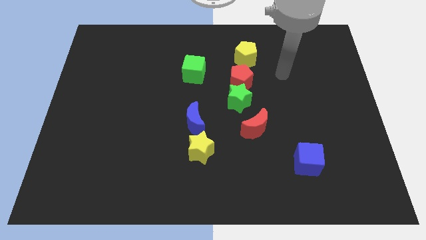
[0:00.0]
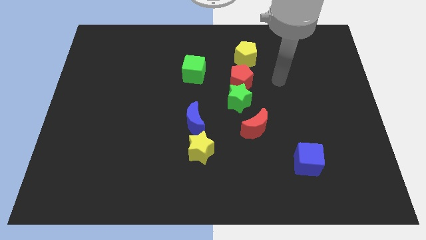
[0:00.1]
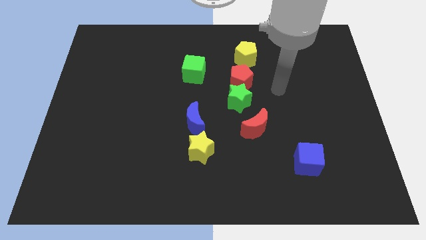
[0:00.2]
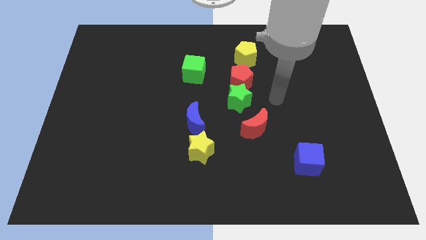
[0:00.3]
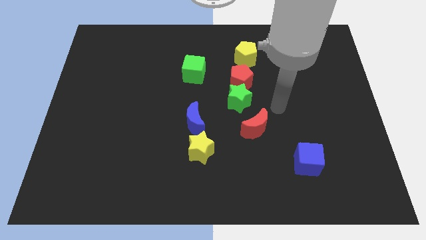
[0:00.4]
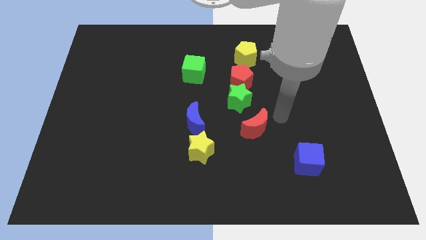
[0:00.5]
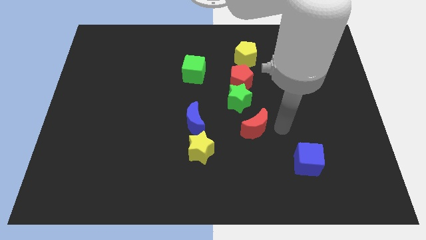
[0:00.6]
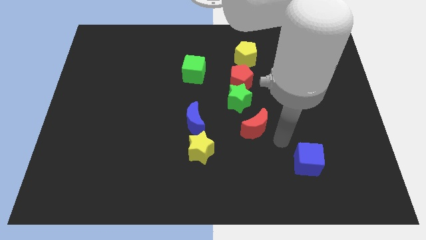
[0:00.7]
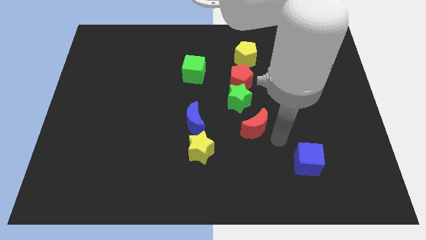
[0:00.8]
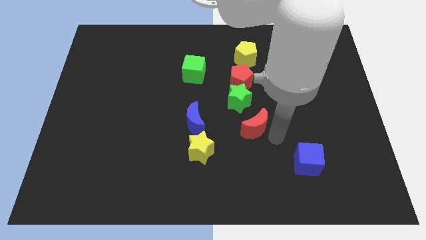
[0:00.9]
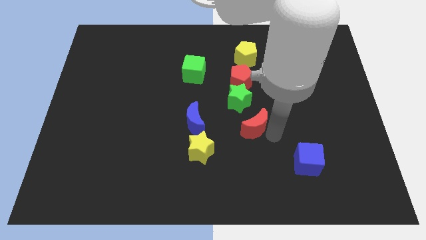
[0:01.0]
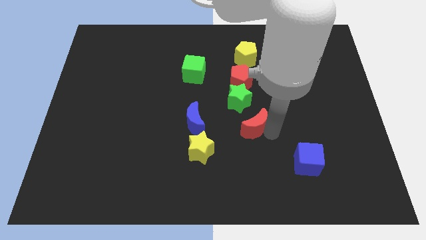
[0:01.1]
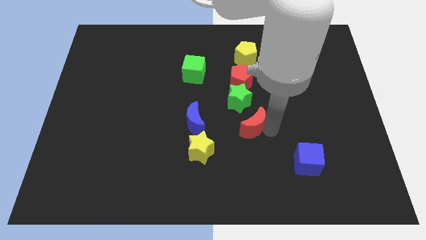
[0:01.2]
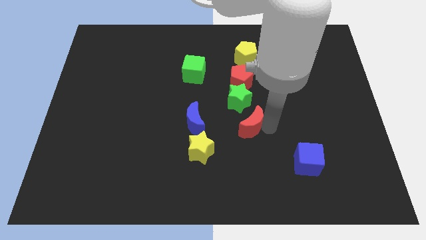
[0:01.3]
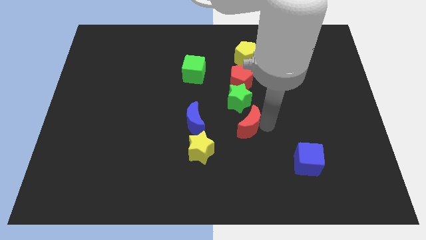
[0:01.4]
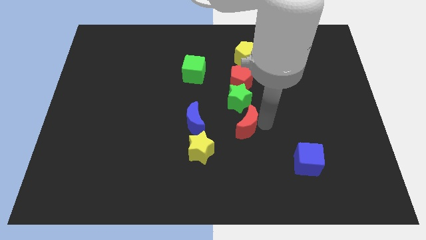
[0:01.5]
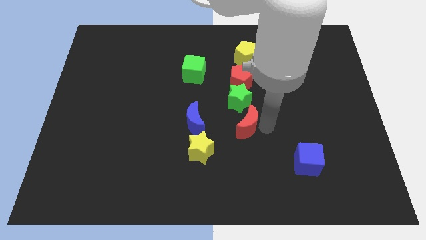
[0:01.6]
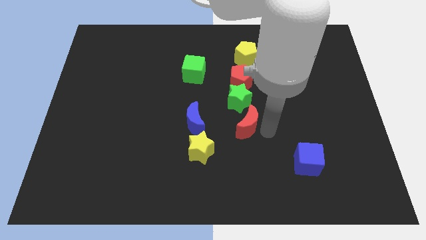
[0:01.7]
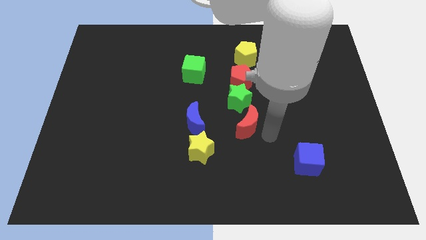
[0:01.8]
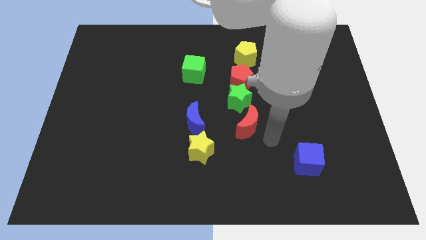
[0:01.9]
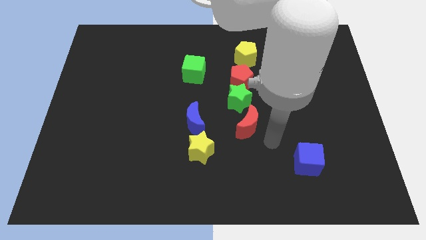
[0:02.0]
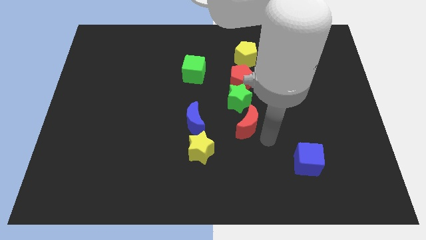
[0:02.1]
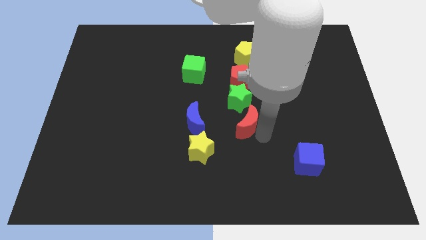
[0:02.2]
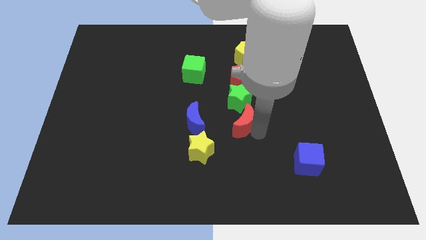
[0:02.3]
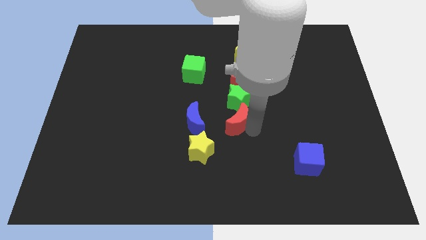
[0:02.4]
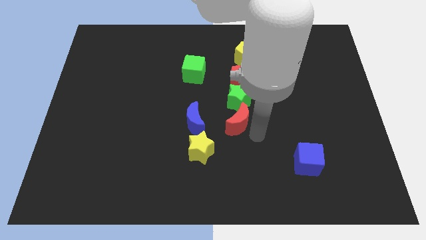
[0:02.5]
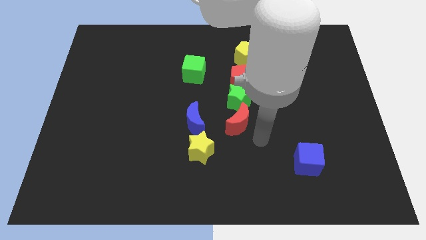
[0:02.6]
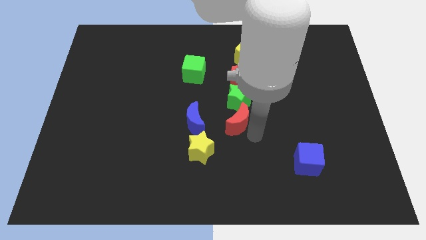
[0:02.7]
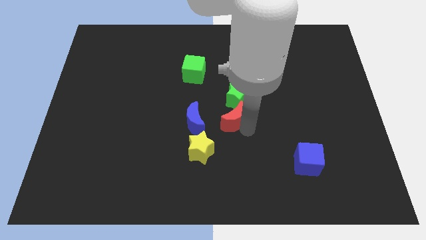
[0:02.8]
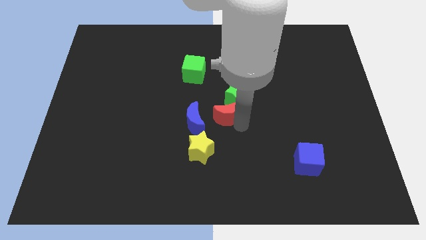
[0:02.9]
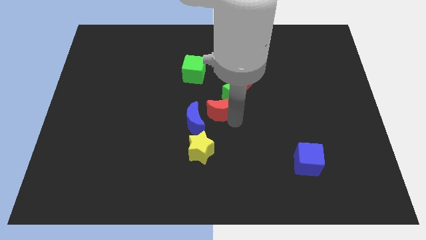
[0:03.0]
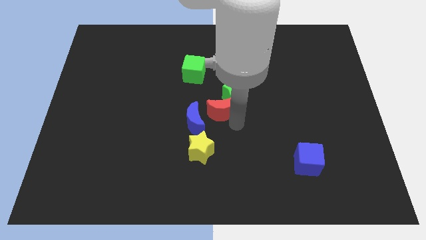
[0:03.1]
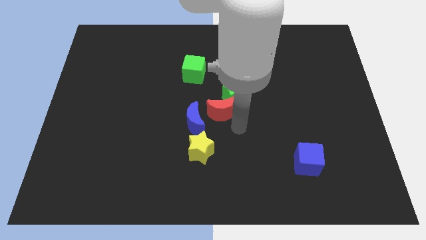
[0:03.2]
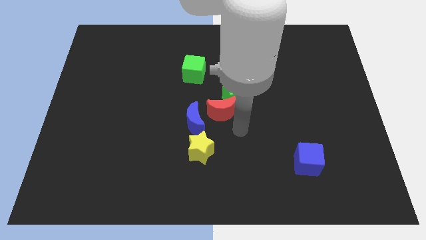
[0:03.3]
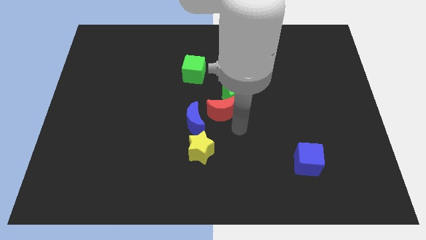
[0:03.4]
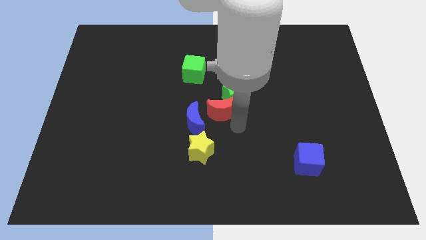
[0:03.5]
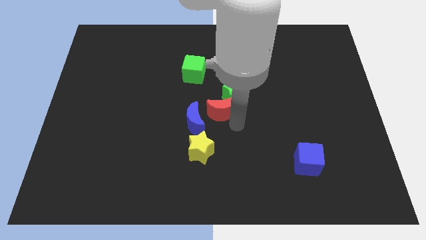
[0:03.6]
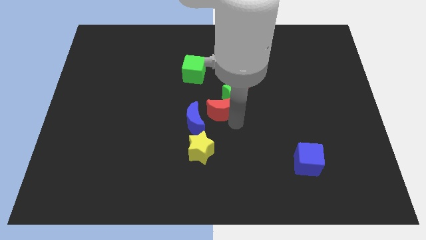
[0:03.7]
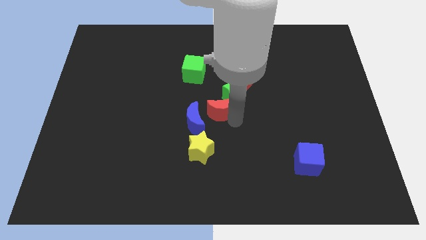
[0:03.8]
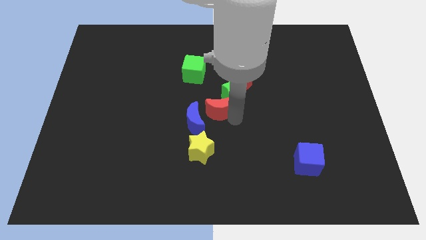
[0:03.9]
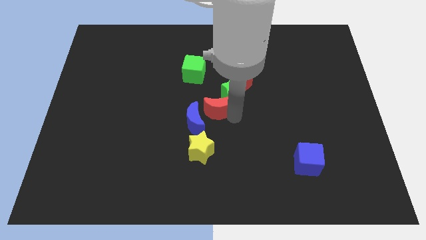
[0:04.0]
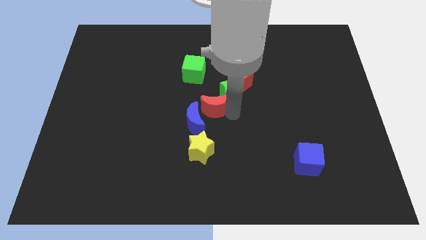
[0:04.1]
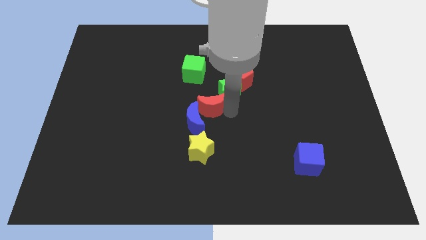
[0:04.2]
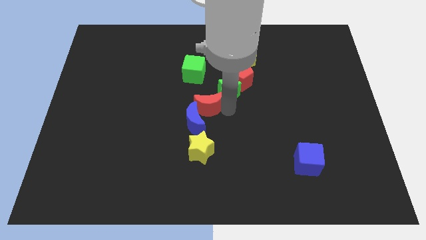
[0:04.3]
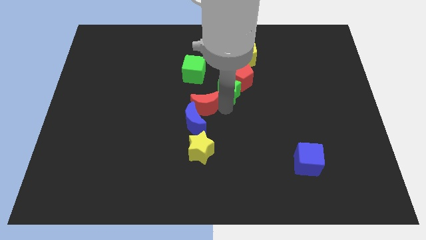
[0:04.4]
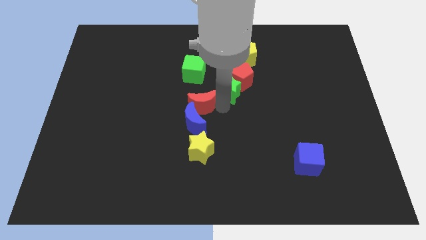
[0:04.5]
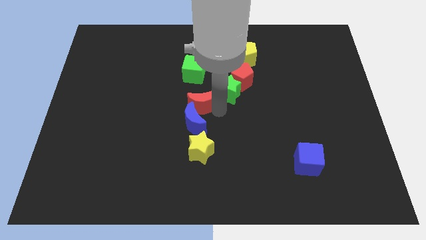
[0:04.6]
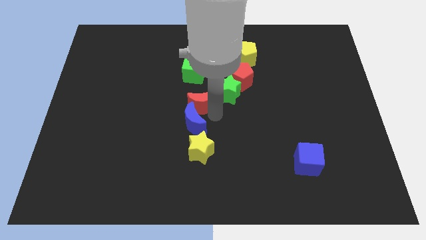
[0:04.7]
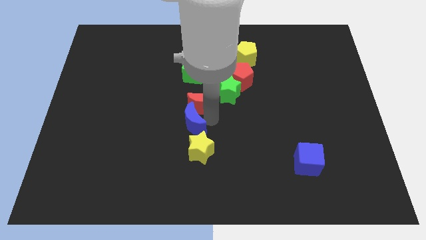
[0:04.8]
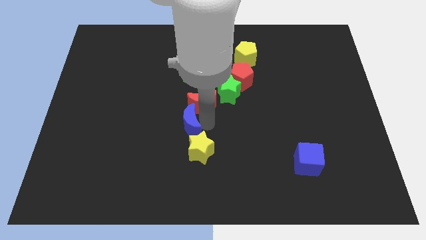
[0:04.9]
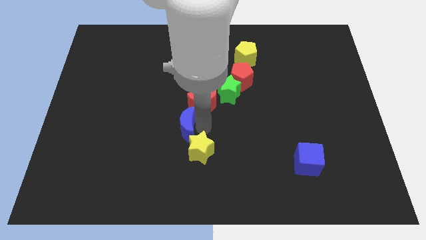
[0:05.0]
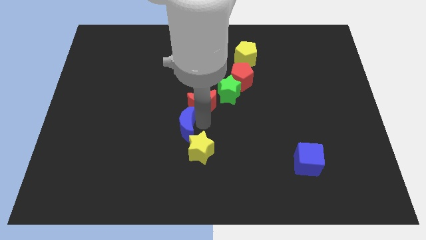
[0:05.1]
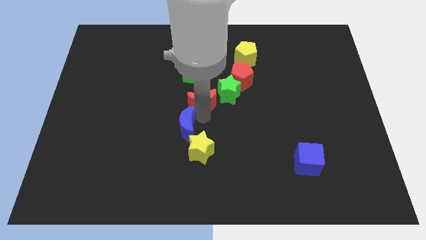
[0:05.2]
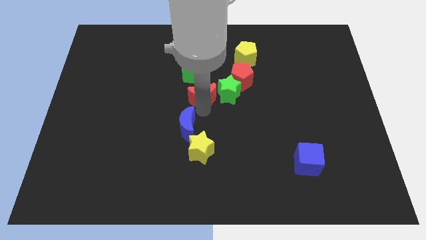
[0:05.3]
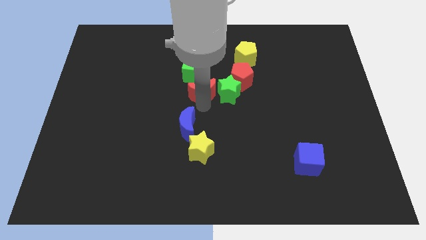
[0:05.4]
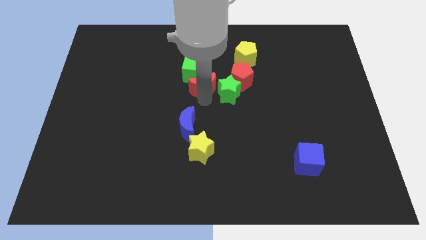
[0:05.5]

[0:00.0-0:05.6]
push the red moon towards the green cube

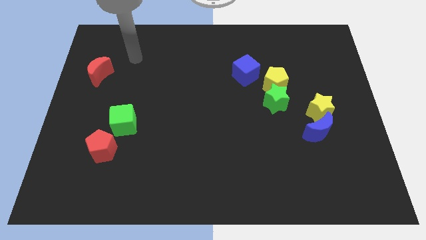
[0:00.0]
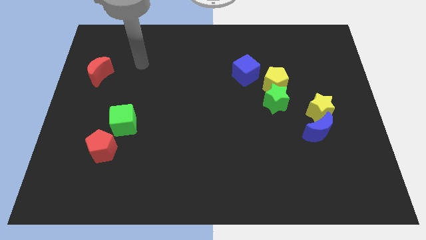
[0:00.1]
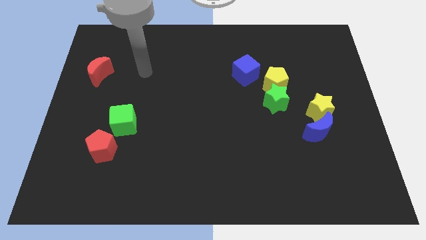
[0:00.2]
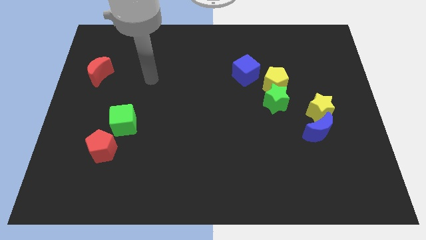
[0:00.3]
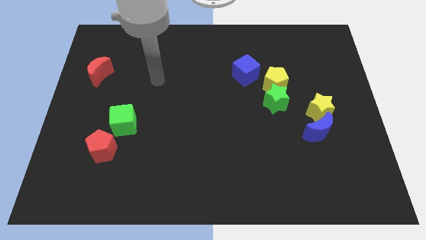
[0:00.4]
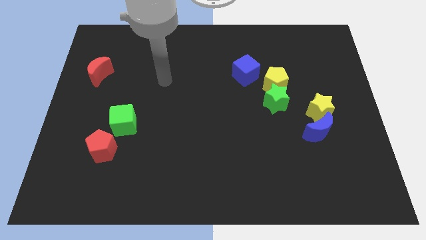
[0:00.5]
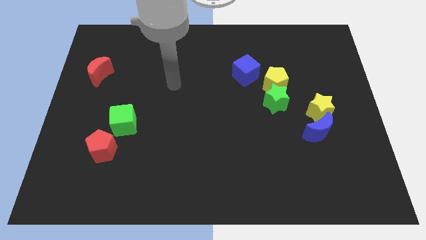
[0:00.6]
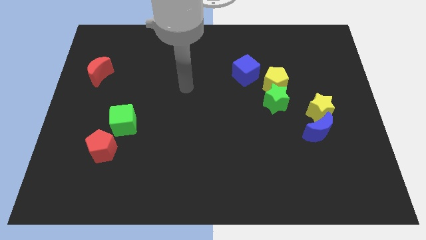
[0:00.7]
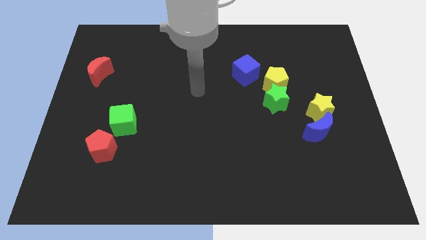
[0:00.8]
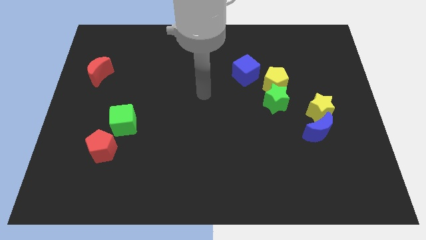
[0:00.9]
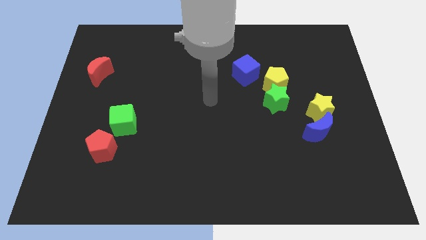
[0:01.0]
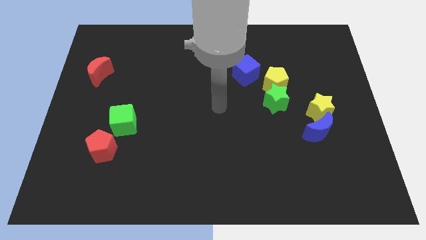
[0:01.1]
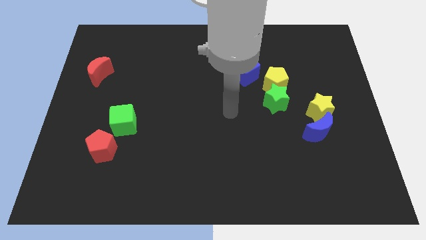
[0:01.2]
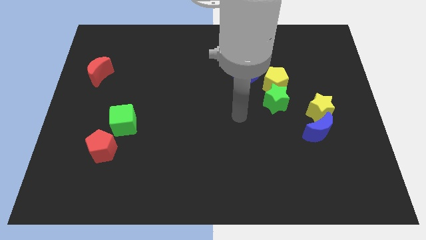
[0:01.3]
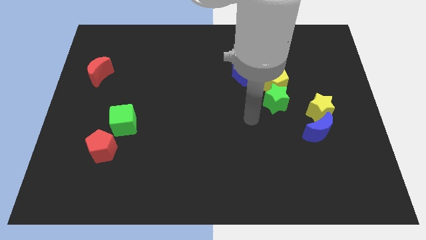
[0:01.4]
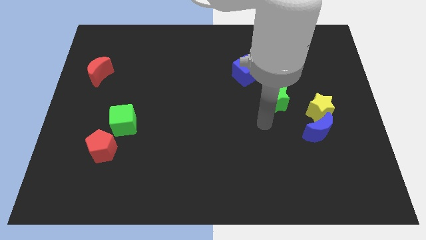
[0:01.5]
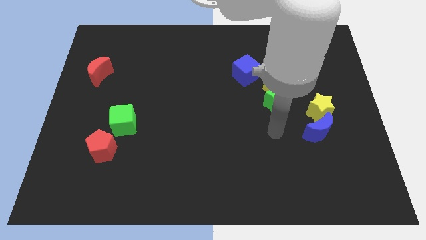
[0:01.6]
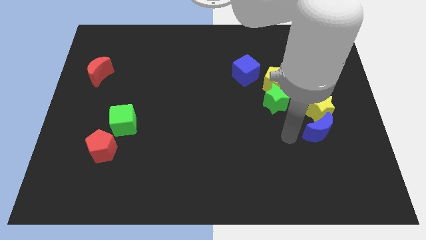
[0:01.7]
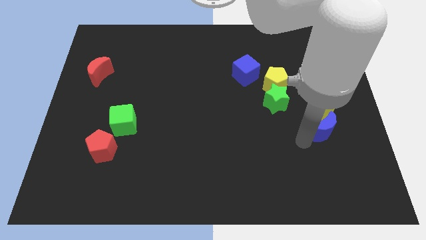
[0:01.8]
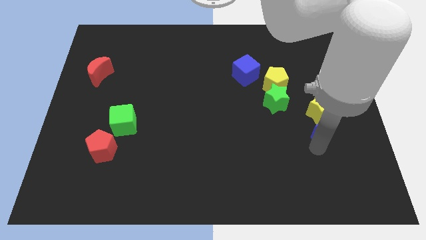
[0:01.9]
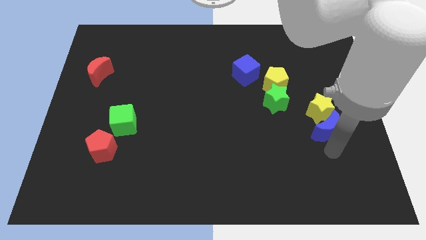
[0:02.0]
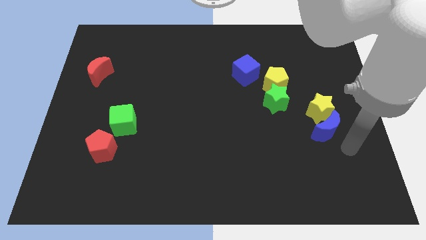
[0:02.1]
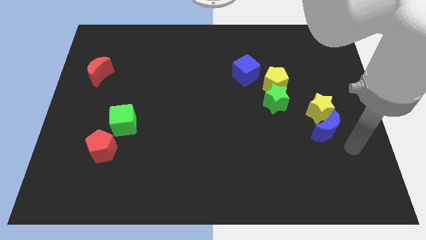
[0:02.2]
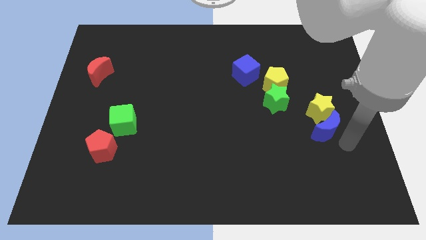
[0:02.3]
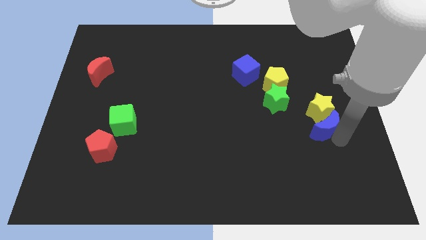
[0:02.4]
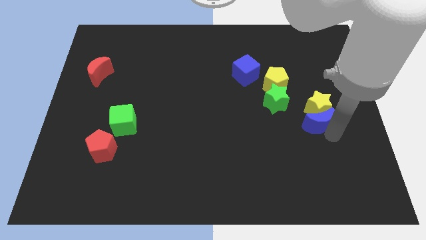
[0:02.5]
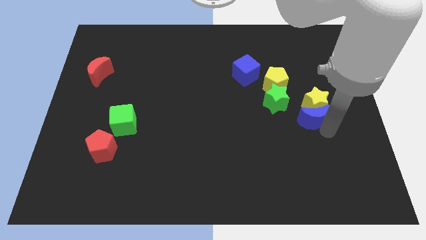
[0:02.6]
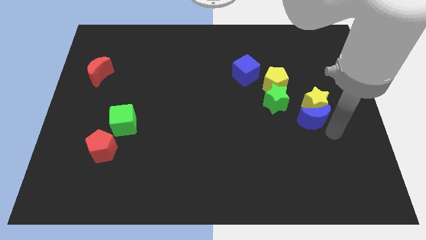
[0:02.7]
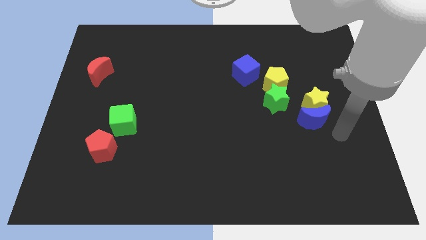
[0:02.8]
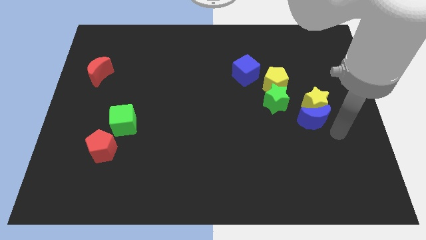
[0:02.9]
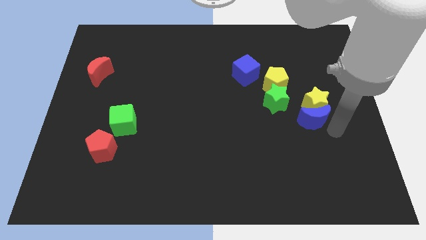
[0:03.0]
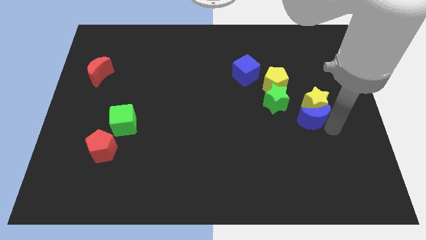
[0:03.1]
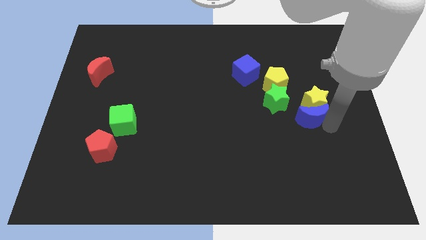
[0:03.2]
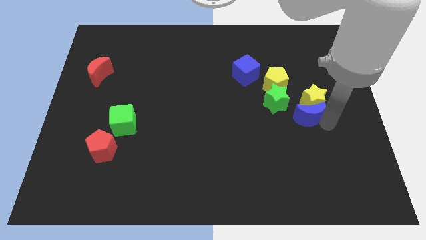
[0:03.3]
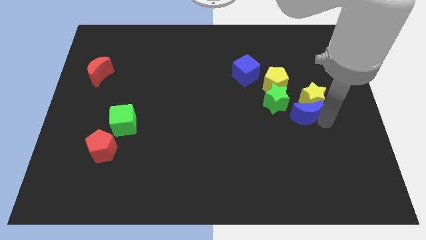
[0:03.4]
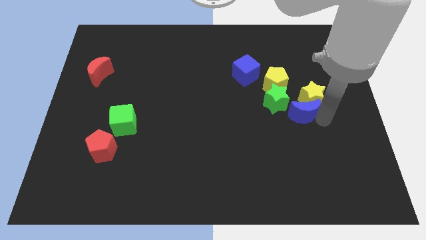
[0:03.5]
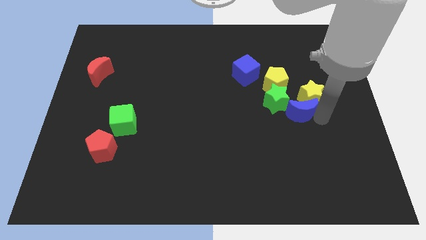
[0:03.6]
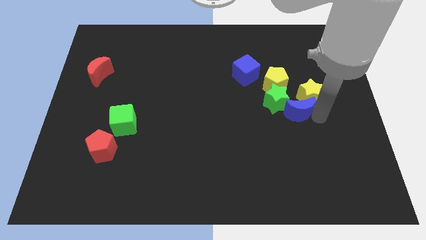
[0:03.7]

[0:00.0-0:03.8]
move the blue moon towards the green star
